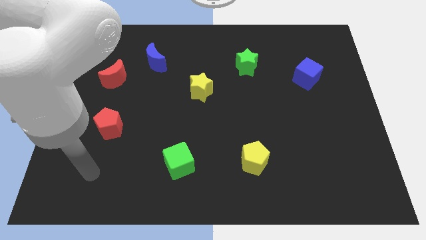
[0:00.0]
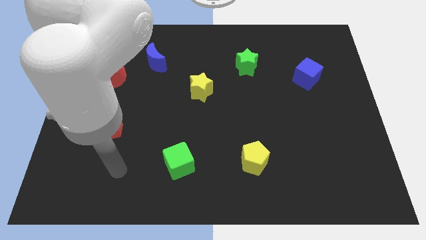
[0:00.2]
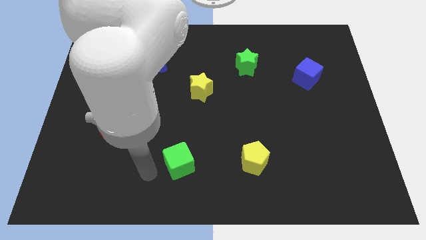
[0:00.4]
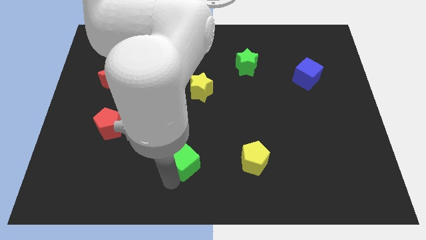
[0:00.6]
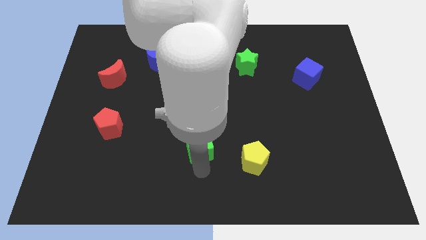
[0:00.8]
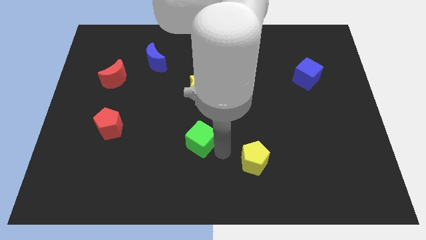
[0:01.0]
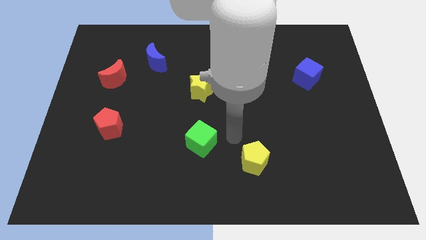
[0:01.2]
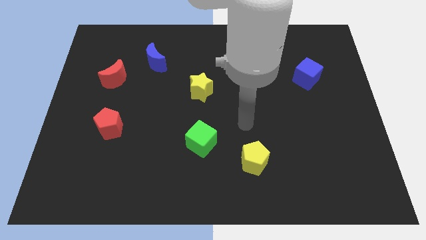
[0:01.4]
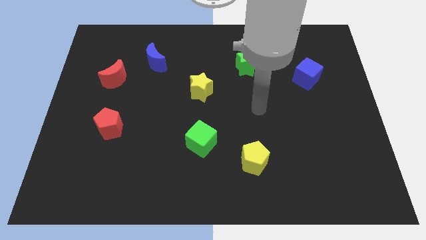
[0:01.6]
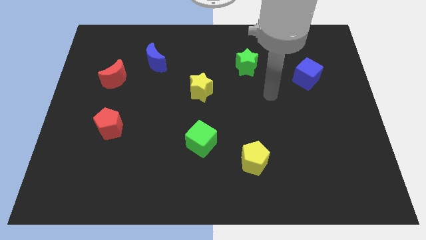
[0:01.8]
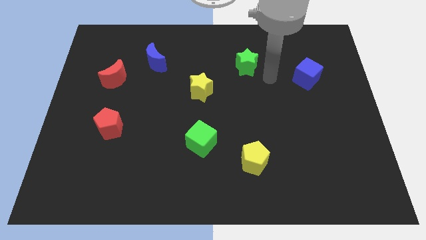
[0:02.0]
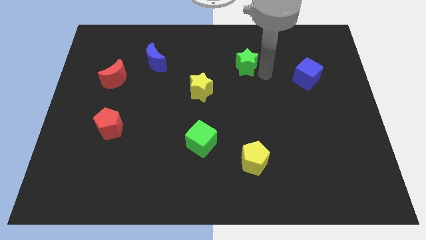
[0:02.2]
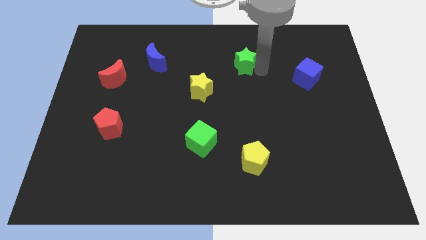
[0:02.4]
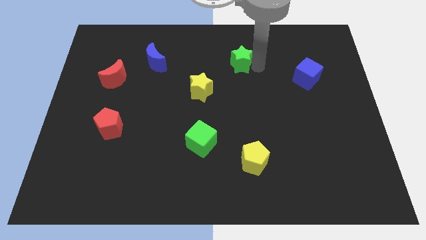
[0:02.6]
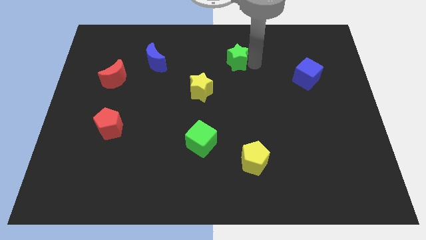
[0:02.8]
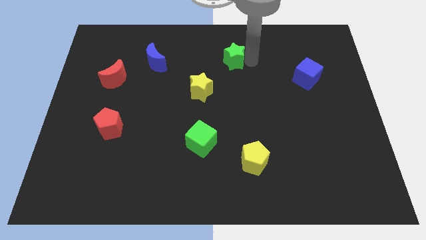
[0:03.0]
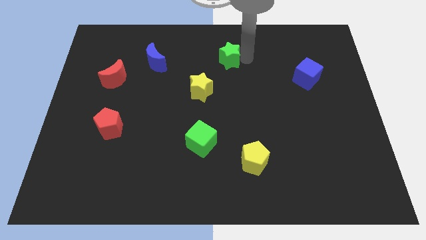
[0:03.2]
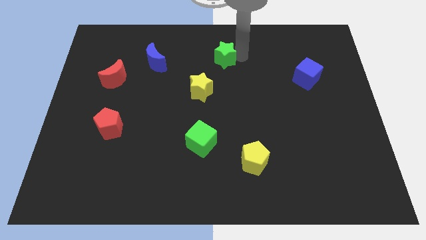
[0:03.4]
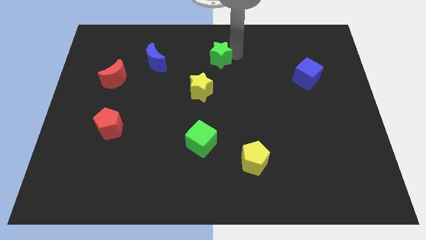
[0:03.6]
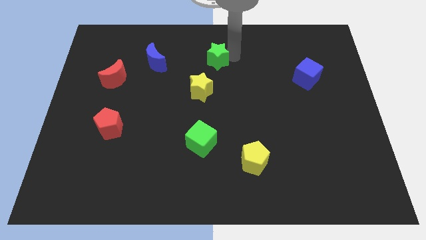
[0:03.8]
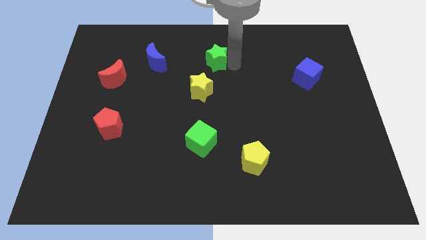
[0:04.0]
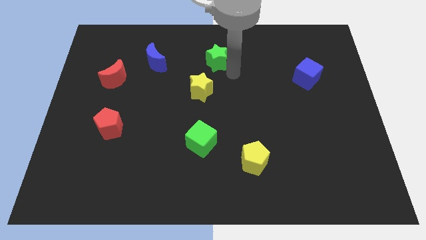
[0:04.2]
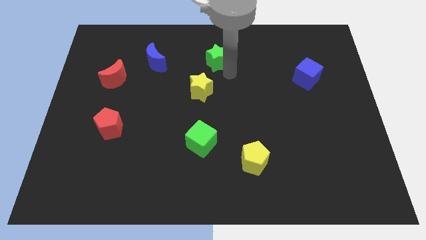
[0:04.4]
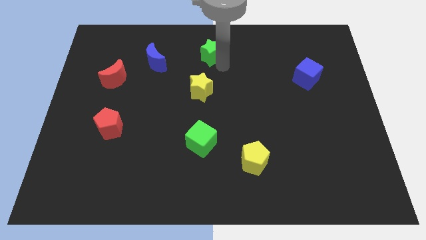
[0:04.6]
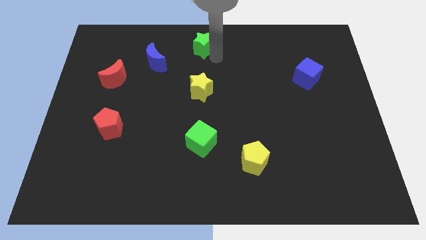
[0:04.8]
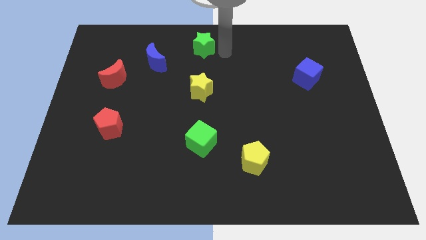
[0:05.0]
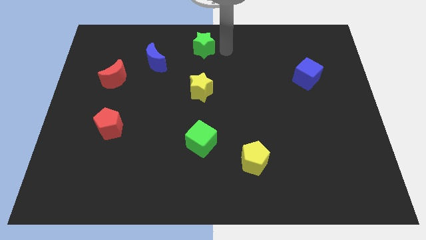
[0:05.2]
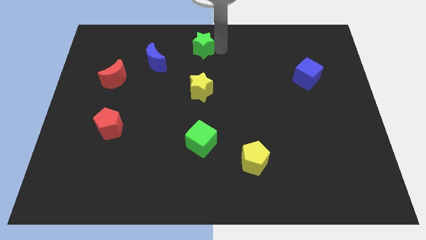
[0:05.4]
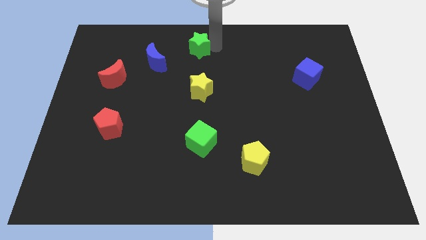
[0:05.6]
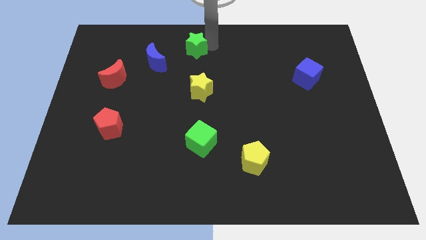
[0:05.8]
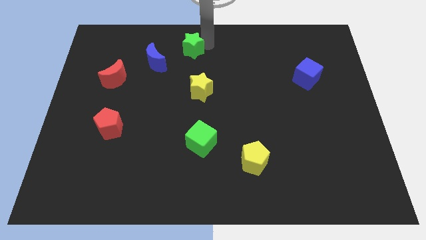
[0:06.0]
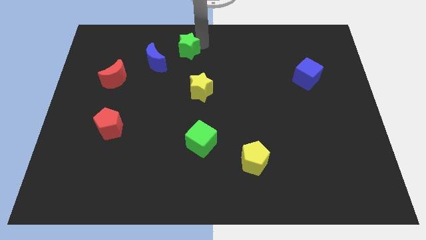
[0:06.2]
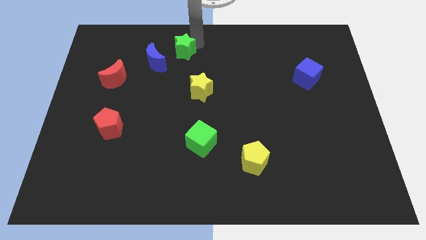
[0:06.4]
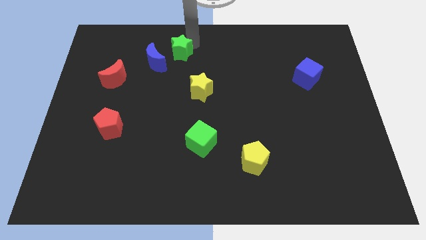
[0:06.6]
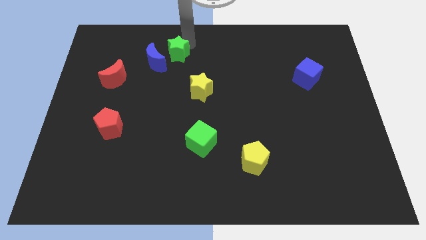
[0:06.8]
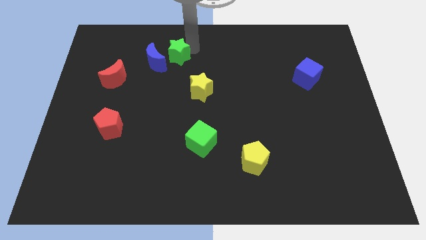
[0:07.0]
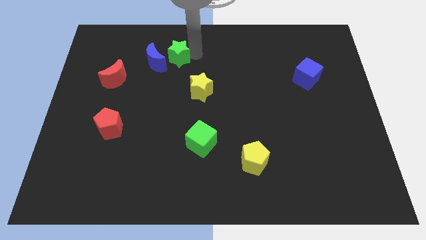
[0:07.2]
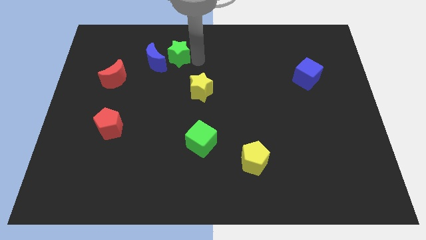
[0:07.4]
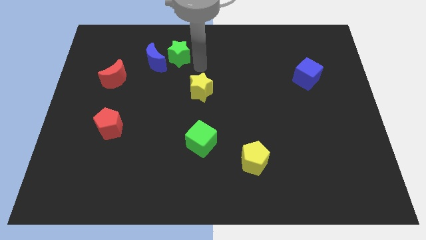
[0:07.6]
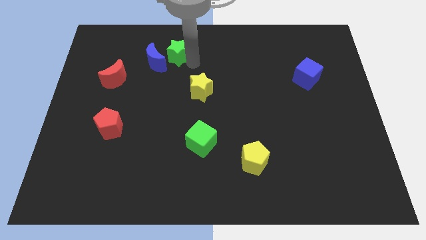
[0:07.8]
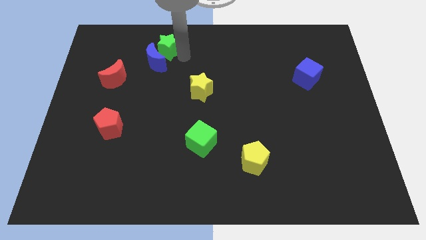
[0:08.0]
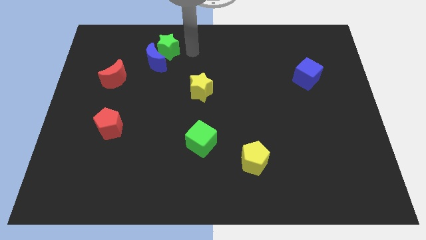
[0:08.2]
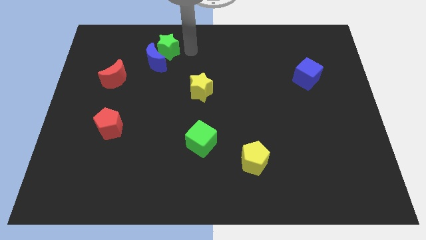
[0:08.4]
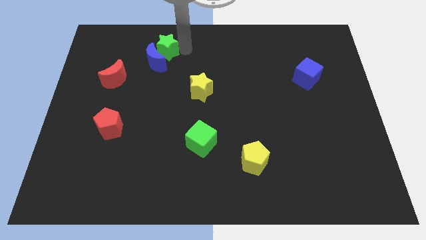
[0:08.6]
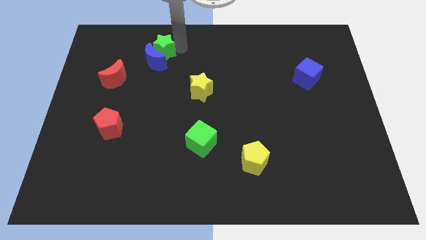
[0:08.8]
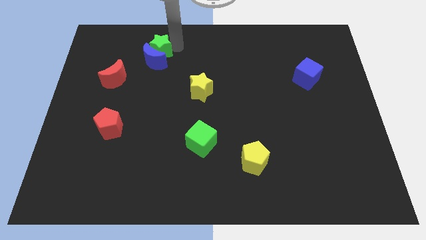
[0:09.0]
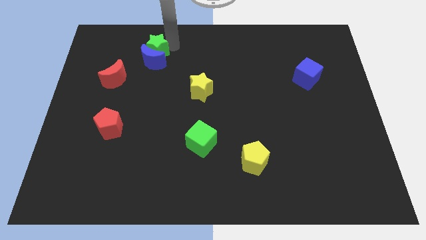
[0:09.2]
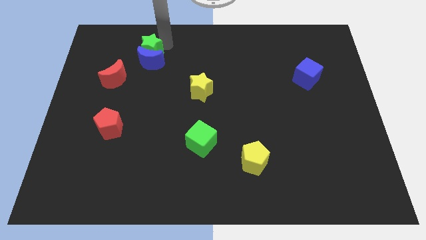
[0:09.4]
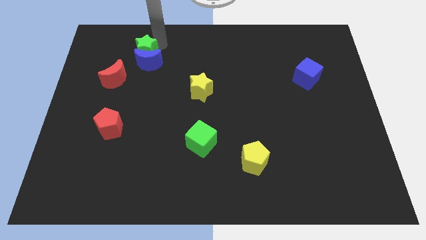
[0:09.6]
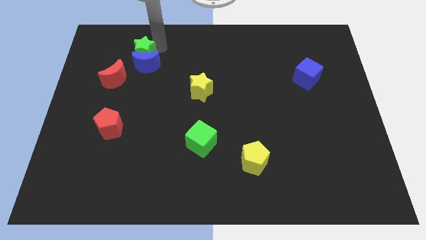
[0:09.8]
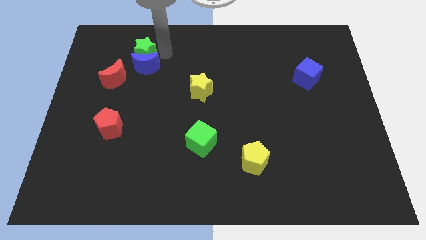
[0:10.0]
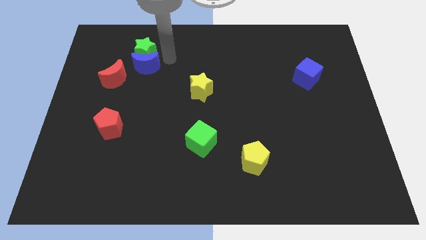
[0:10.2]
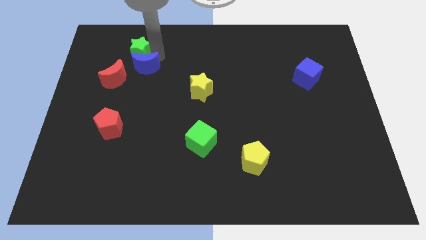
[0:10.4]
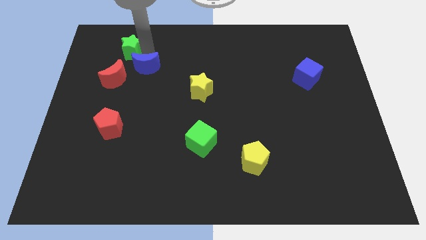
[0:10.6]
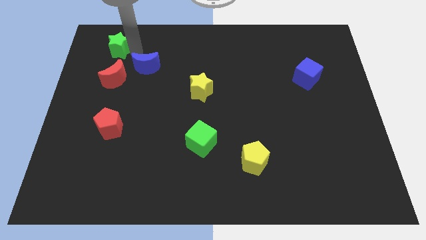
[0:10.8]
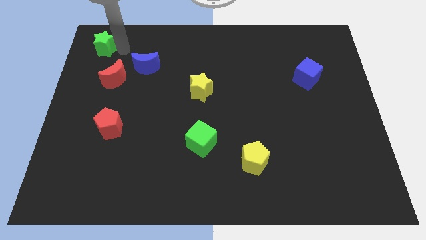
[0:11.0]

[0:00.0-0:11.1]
slide the green star to the upper left corner
